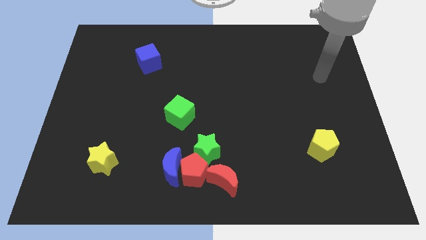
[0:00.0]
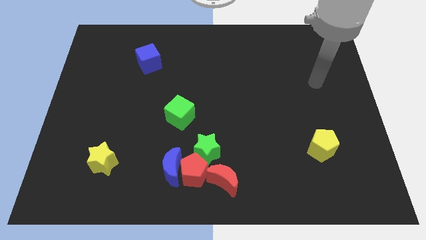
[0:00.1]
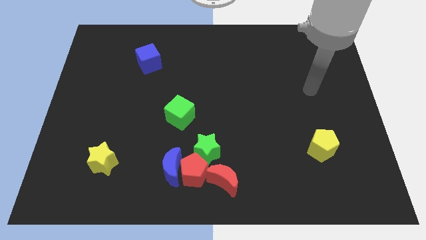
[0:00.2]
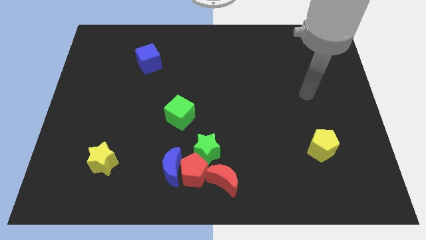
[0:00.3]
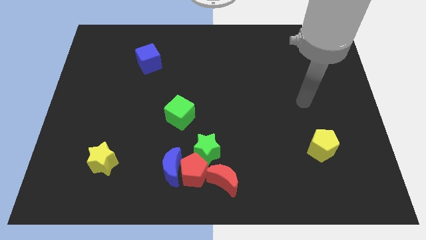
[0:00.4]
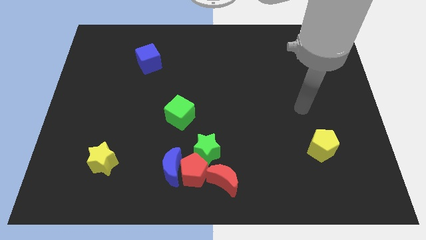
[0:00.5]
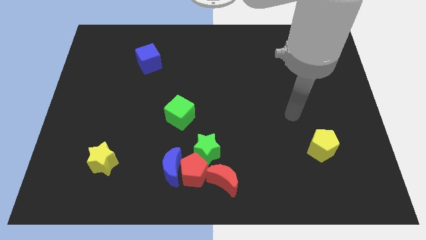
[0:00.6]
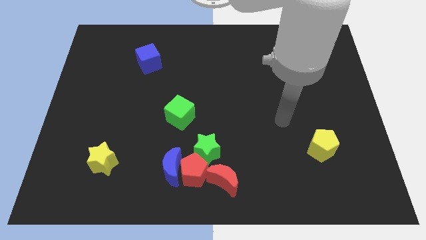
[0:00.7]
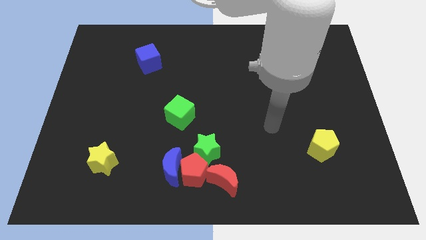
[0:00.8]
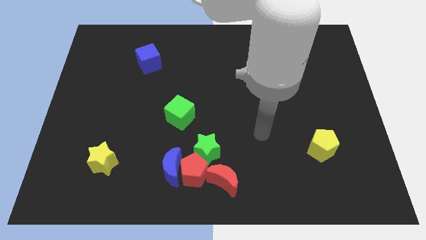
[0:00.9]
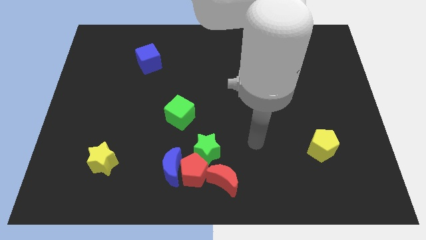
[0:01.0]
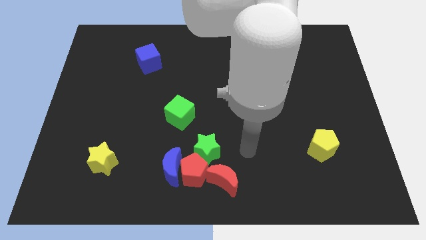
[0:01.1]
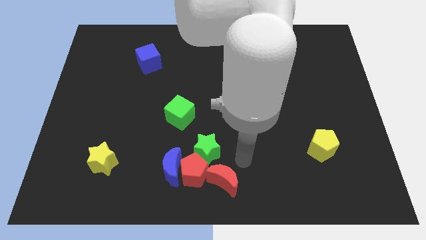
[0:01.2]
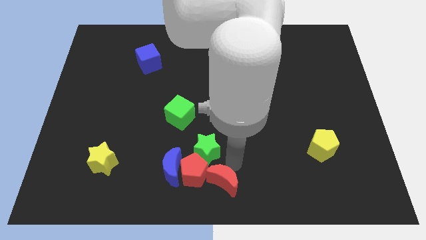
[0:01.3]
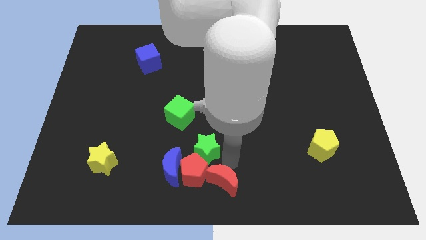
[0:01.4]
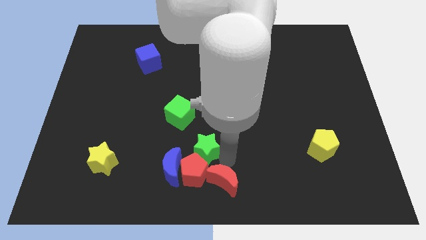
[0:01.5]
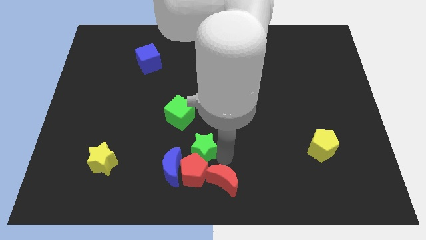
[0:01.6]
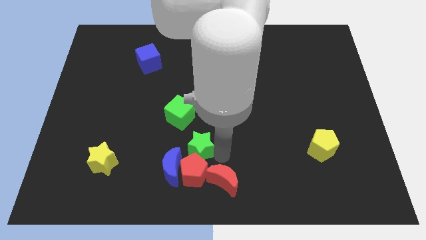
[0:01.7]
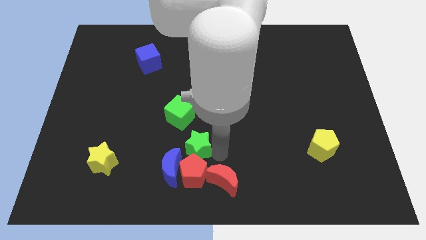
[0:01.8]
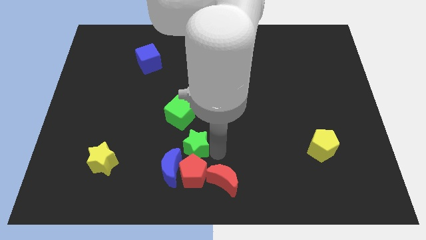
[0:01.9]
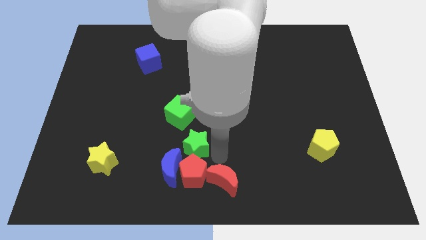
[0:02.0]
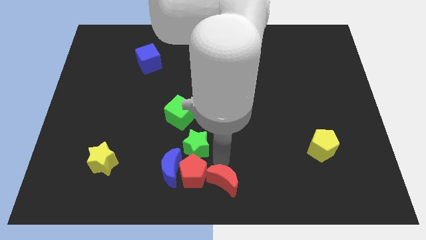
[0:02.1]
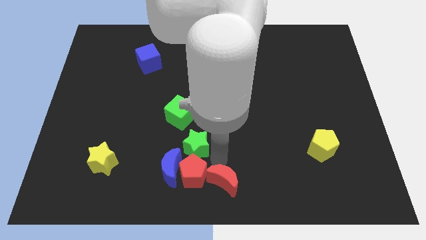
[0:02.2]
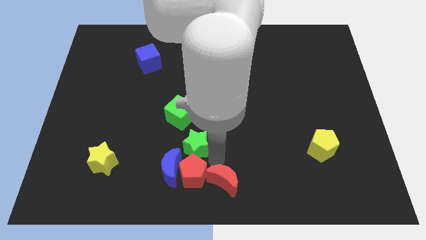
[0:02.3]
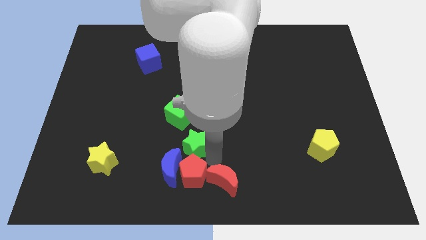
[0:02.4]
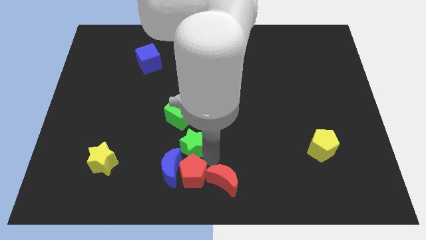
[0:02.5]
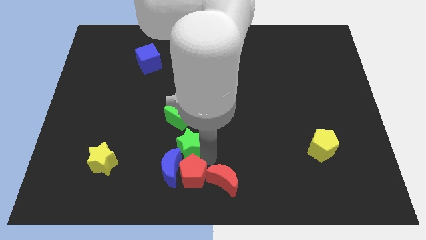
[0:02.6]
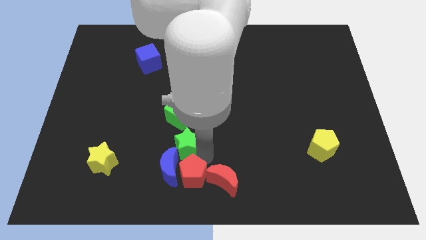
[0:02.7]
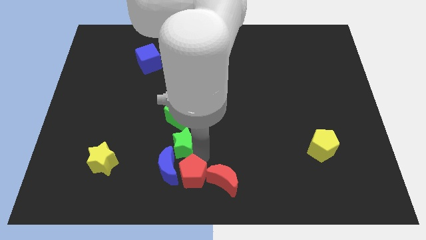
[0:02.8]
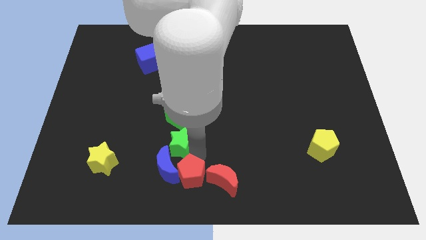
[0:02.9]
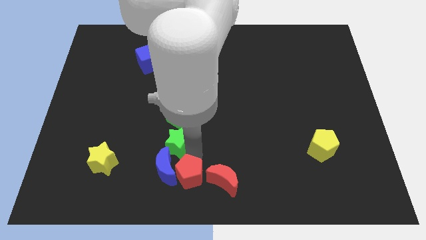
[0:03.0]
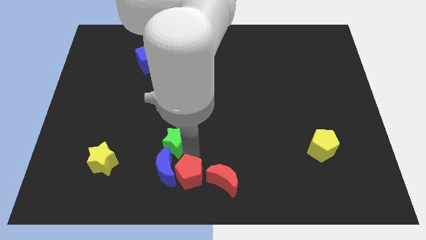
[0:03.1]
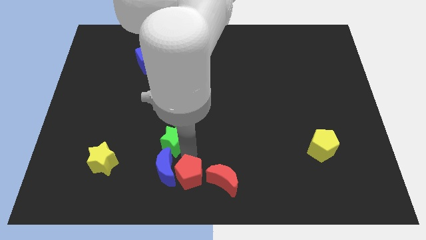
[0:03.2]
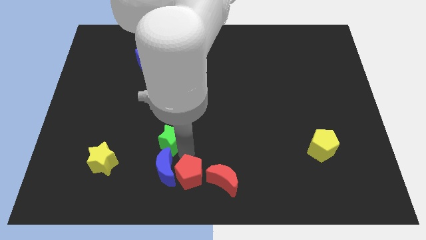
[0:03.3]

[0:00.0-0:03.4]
slightly slide the green star diagonally upwards and to the left

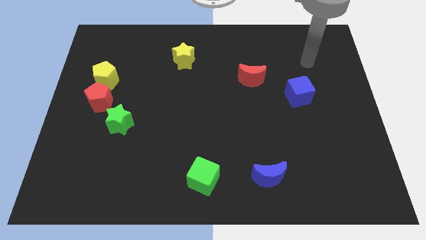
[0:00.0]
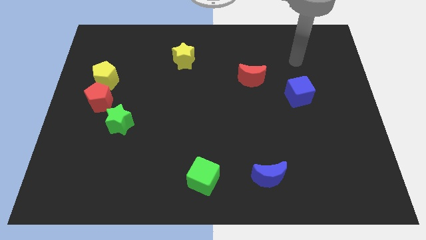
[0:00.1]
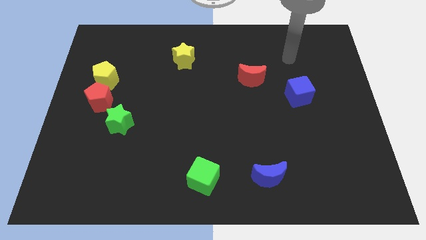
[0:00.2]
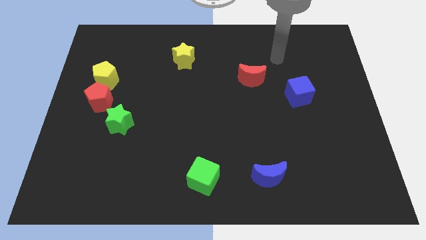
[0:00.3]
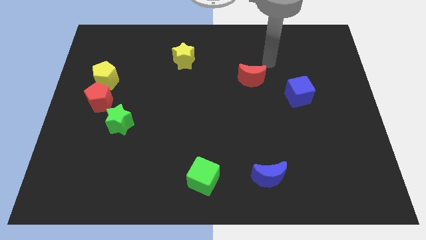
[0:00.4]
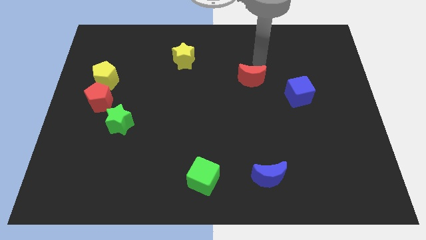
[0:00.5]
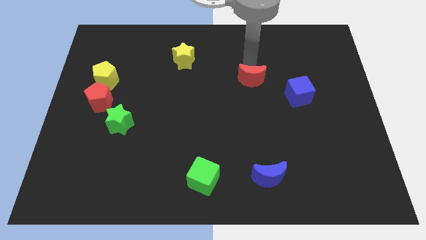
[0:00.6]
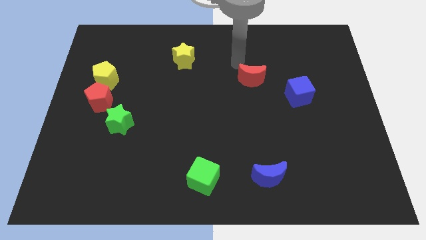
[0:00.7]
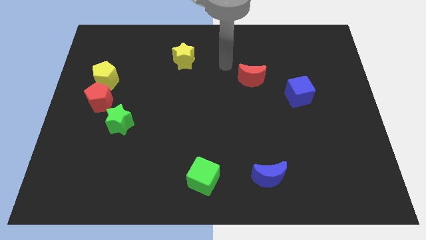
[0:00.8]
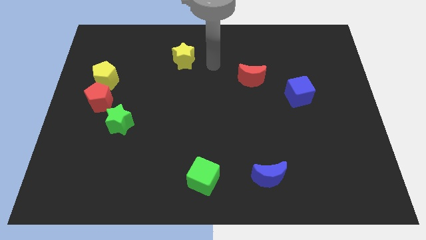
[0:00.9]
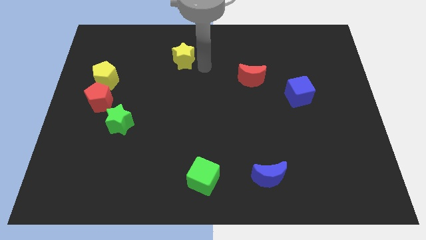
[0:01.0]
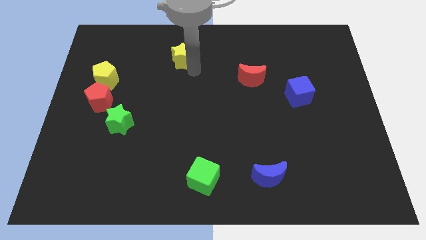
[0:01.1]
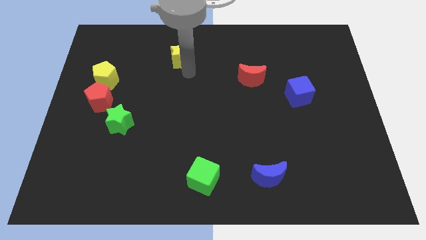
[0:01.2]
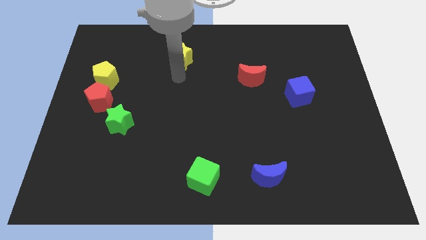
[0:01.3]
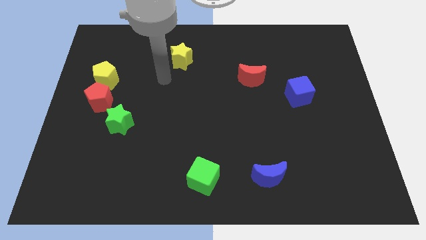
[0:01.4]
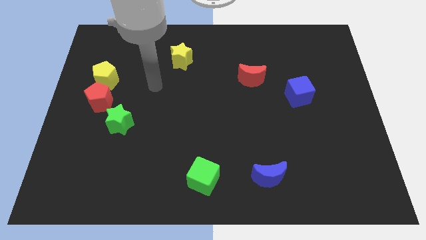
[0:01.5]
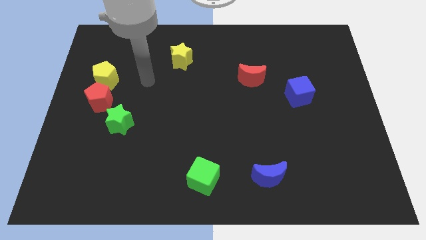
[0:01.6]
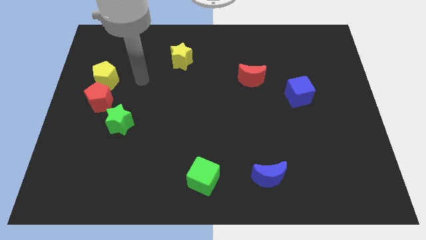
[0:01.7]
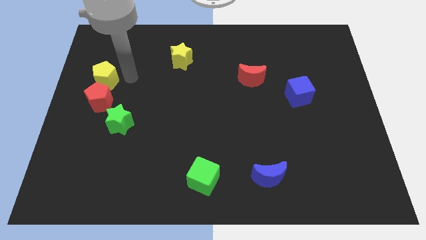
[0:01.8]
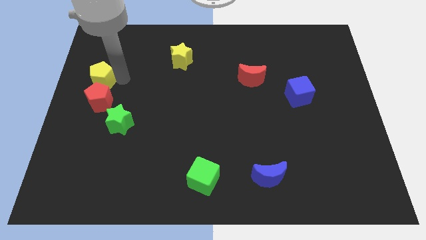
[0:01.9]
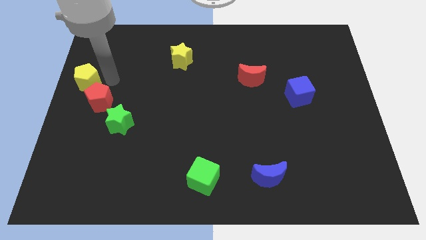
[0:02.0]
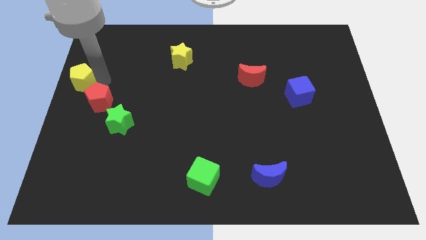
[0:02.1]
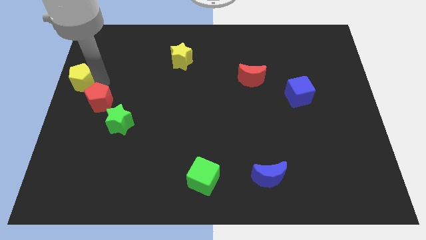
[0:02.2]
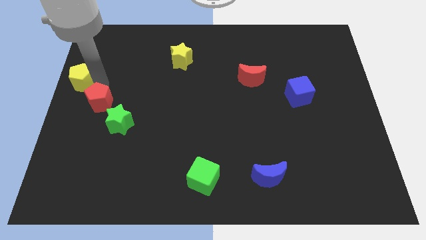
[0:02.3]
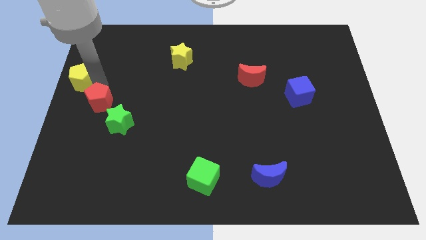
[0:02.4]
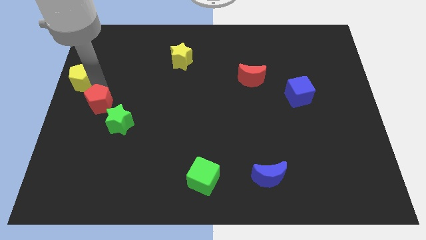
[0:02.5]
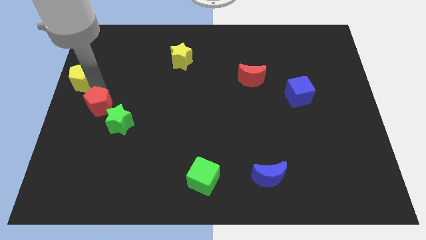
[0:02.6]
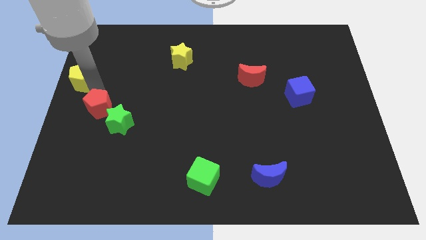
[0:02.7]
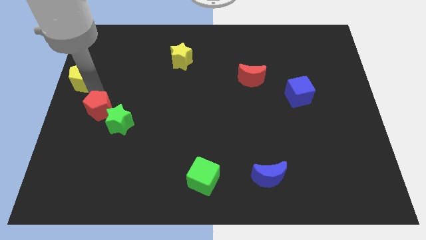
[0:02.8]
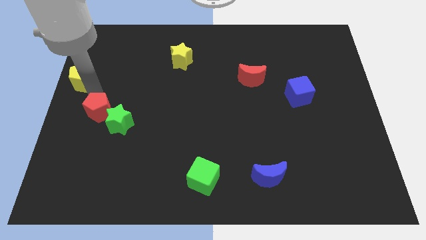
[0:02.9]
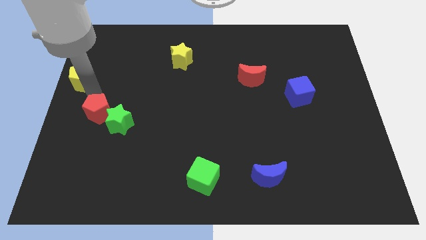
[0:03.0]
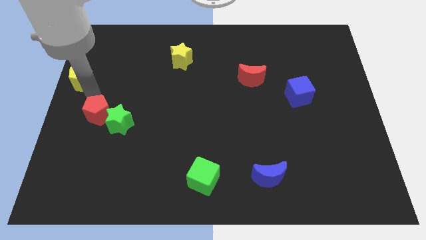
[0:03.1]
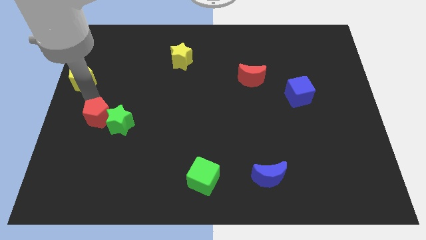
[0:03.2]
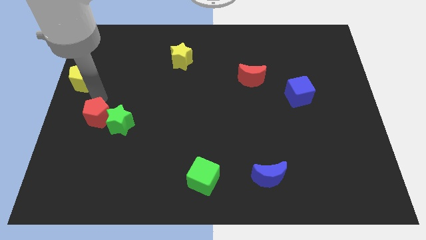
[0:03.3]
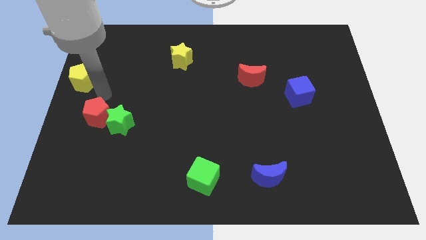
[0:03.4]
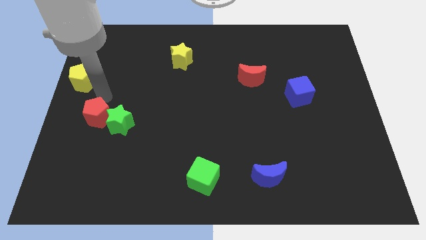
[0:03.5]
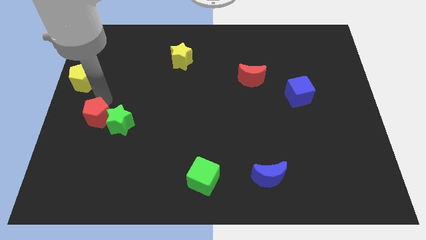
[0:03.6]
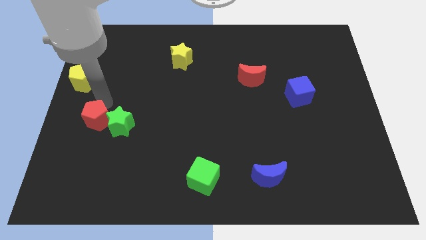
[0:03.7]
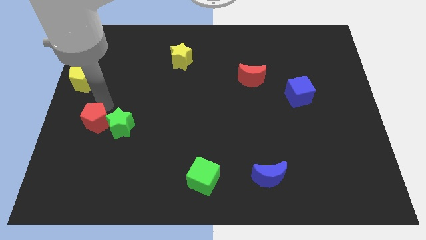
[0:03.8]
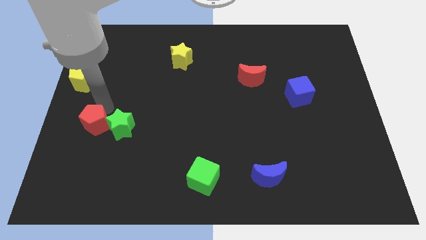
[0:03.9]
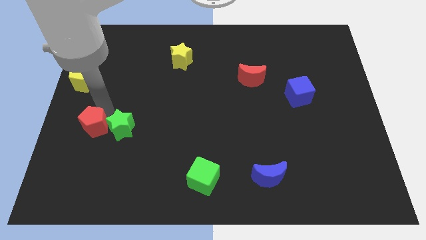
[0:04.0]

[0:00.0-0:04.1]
slightly move the red pentagon down

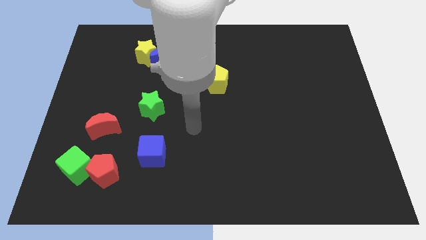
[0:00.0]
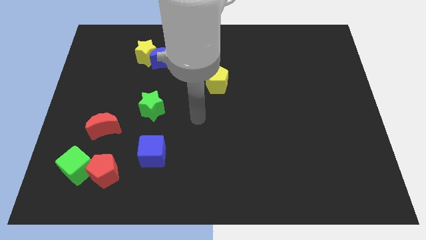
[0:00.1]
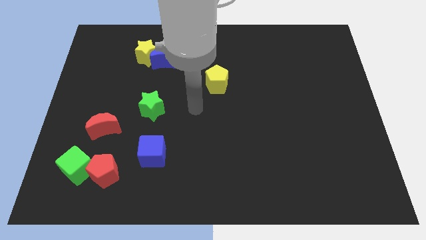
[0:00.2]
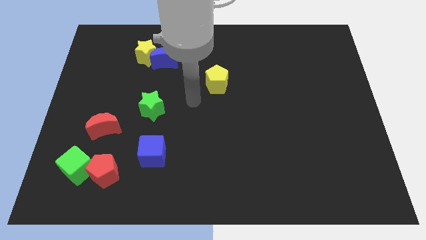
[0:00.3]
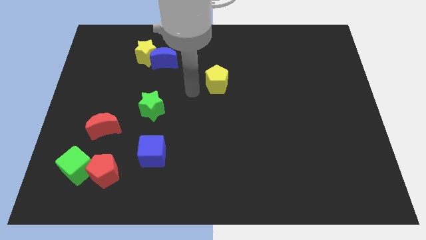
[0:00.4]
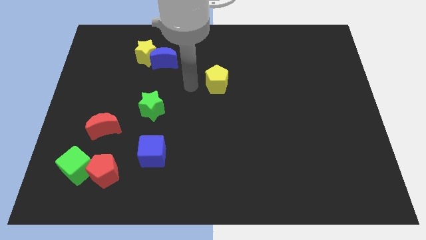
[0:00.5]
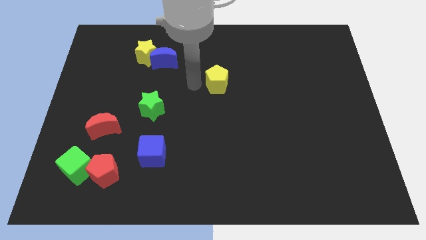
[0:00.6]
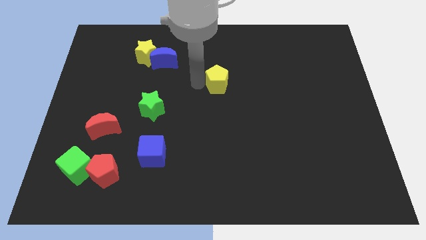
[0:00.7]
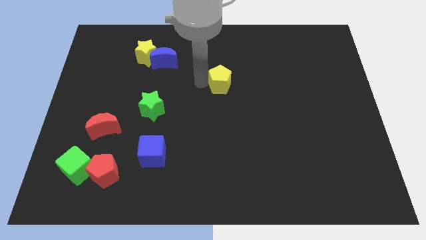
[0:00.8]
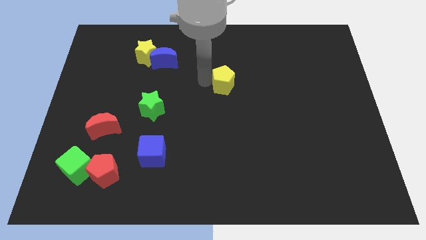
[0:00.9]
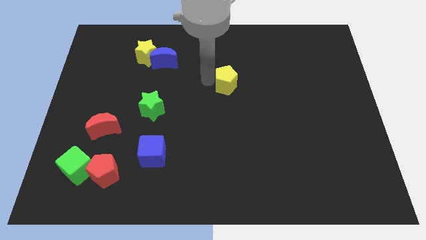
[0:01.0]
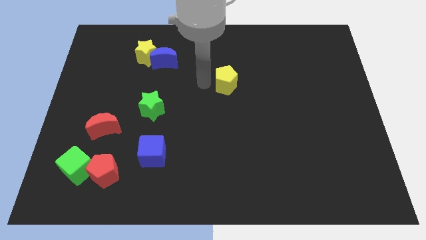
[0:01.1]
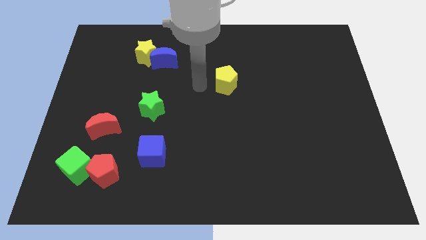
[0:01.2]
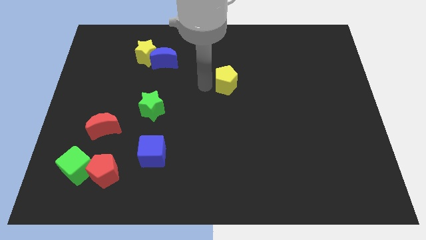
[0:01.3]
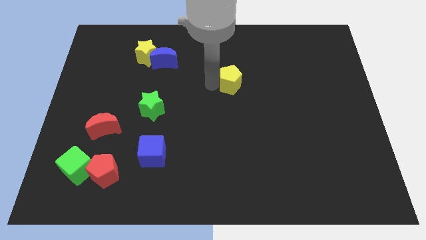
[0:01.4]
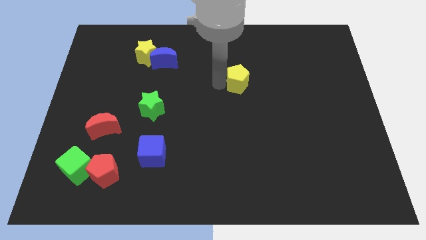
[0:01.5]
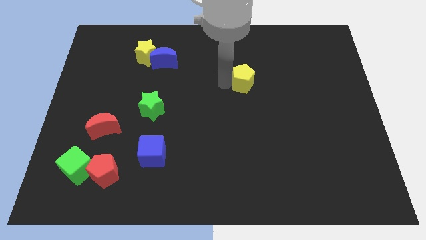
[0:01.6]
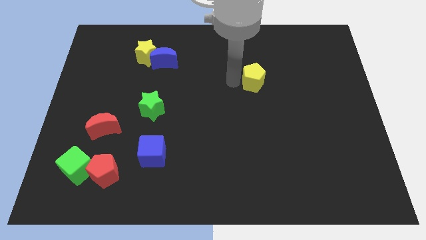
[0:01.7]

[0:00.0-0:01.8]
move the yellow pentagon to the right somewhat
